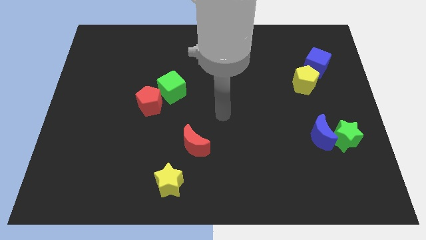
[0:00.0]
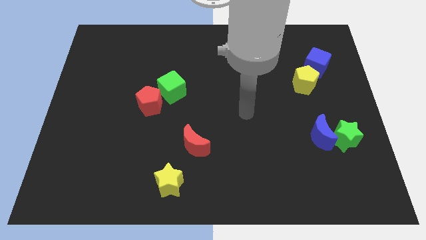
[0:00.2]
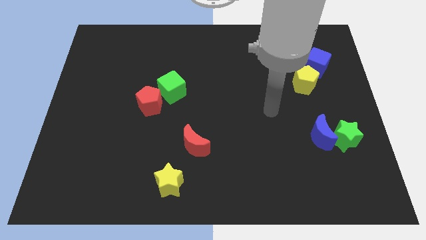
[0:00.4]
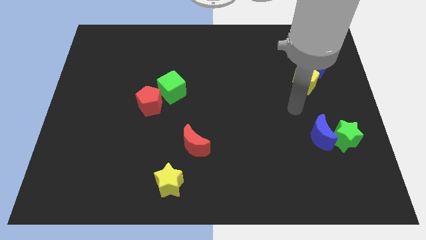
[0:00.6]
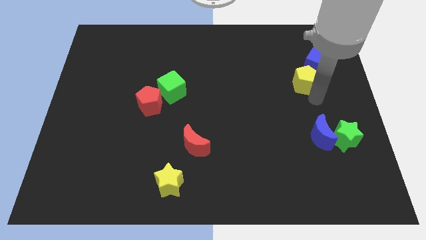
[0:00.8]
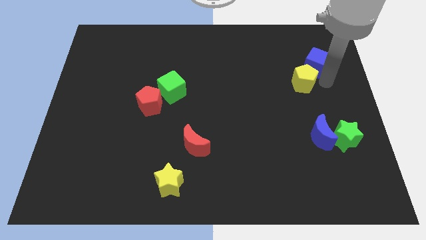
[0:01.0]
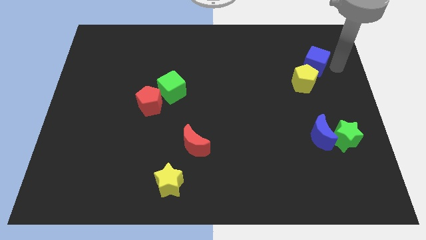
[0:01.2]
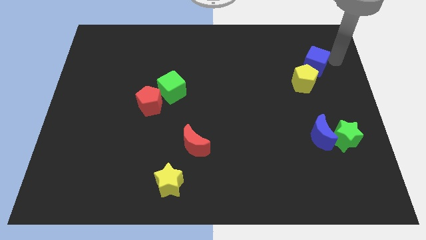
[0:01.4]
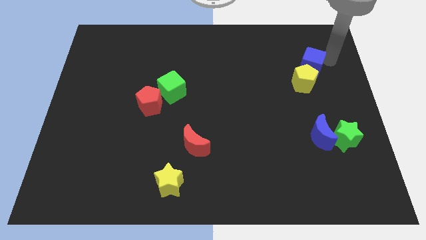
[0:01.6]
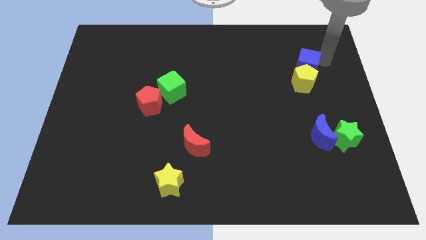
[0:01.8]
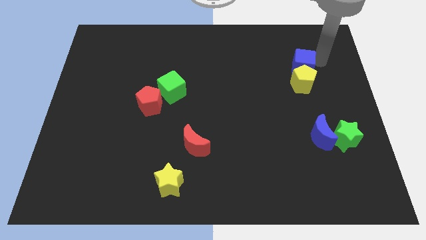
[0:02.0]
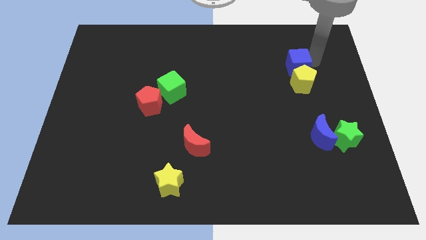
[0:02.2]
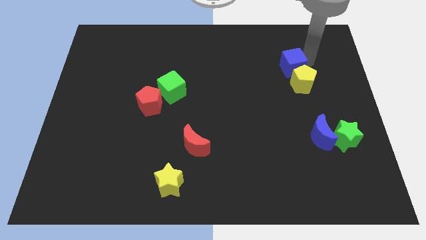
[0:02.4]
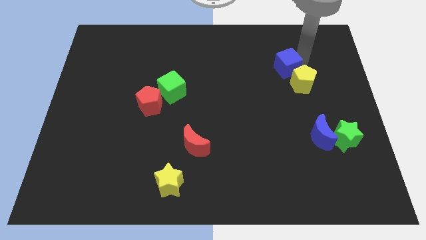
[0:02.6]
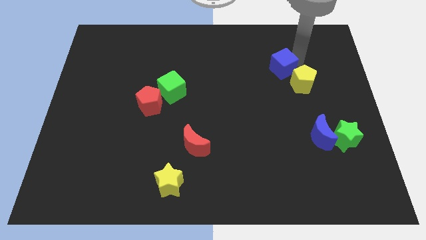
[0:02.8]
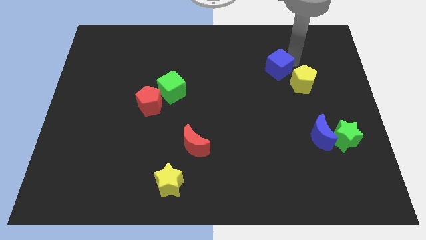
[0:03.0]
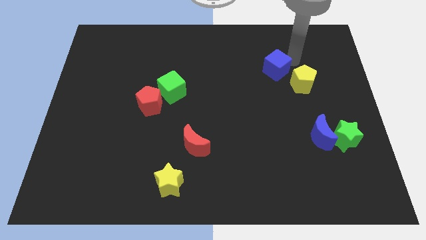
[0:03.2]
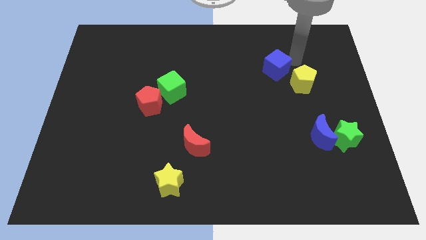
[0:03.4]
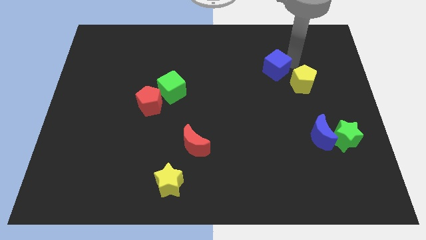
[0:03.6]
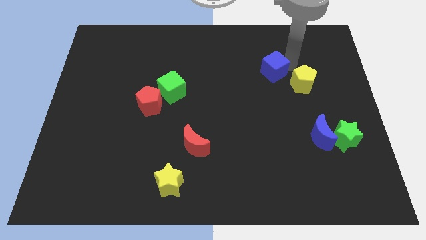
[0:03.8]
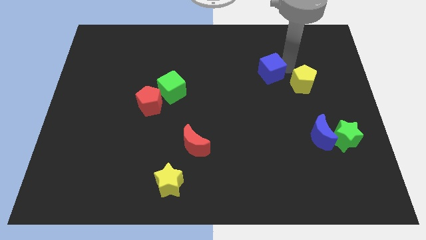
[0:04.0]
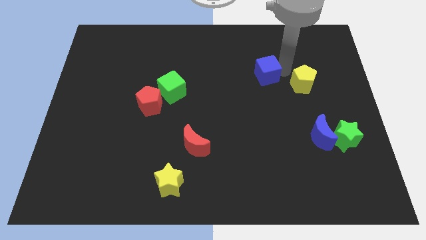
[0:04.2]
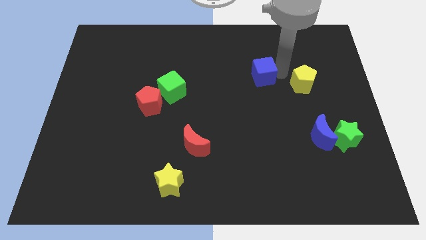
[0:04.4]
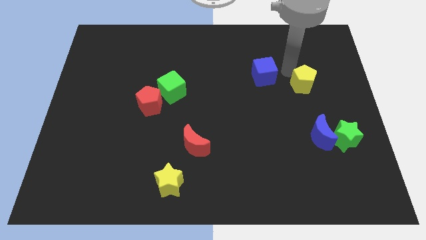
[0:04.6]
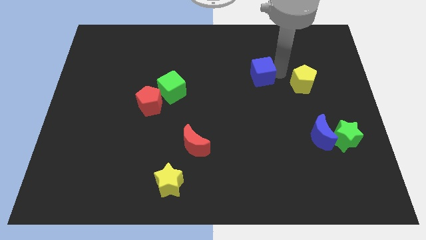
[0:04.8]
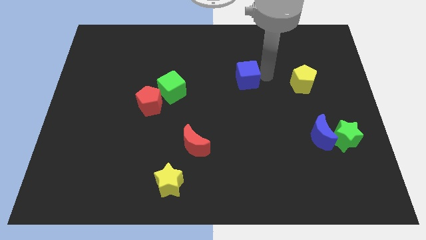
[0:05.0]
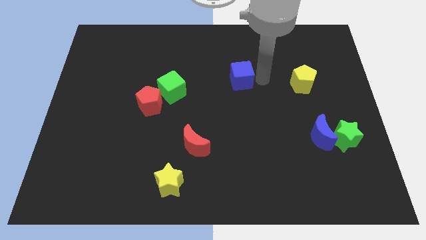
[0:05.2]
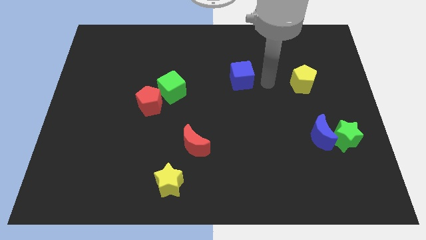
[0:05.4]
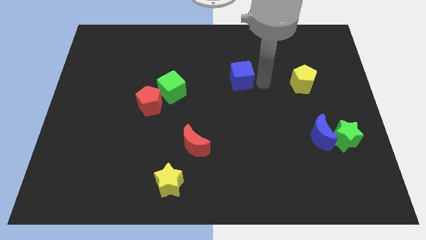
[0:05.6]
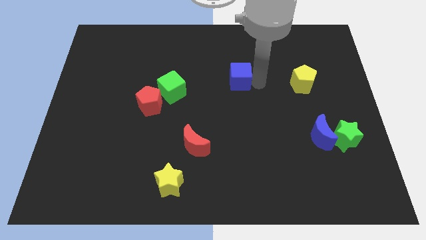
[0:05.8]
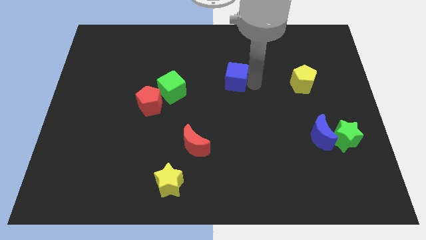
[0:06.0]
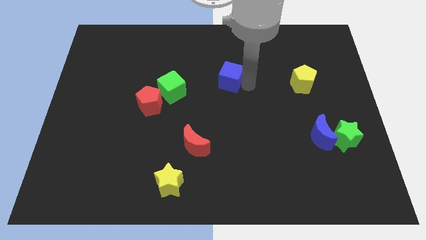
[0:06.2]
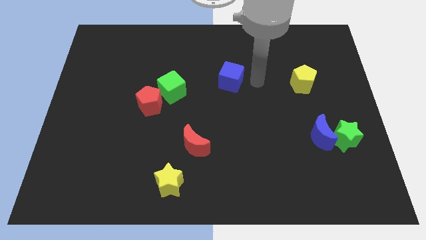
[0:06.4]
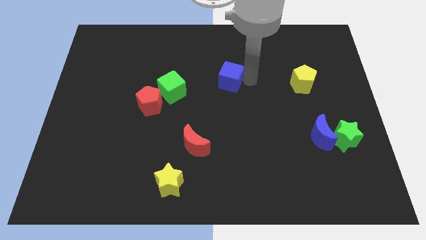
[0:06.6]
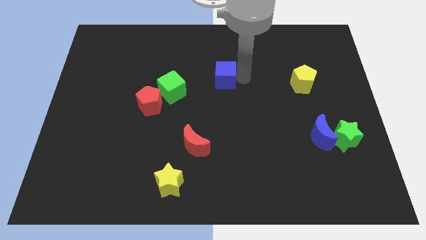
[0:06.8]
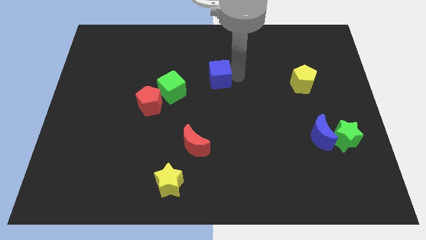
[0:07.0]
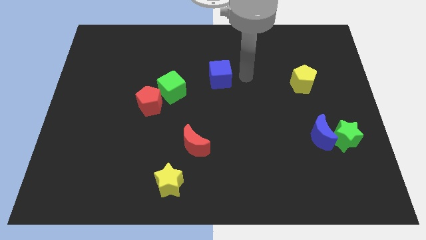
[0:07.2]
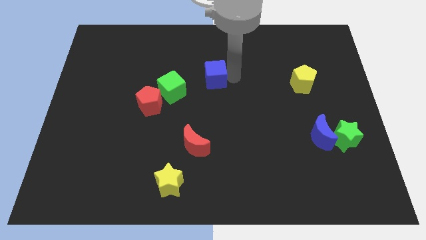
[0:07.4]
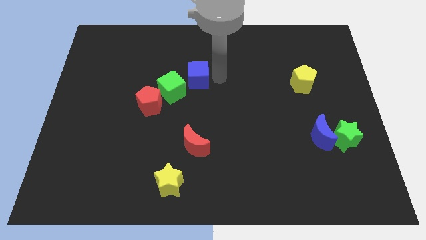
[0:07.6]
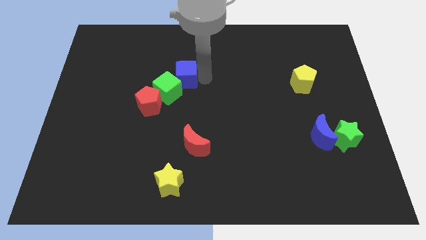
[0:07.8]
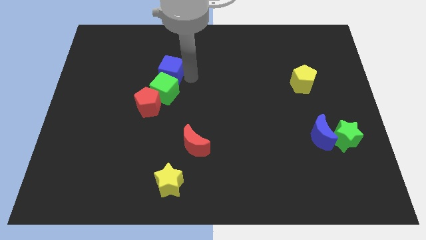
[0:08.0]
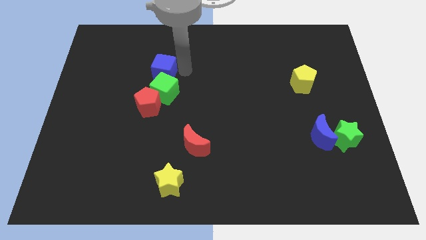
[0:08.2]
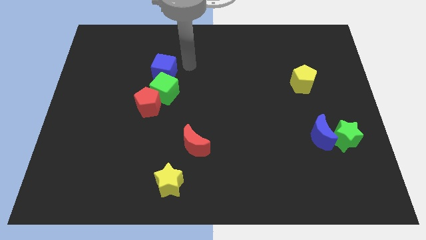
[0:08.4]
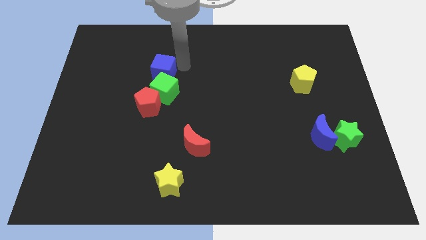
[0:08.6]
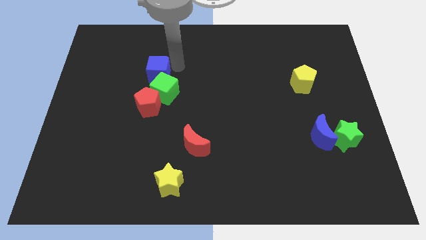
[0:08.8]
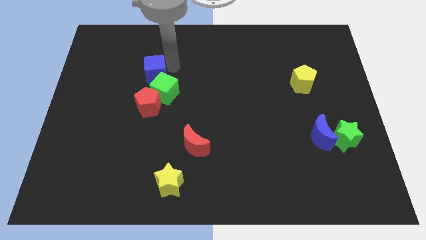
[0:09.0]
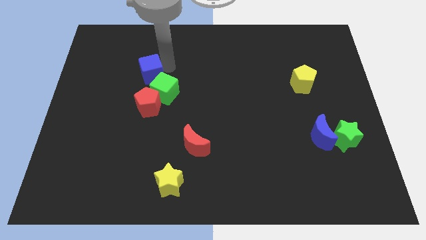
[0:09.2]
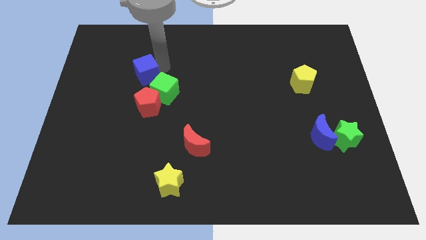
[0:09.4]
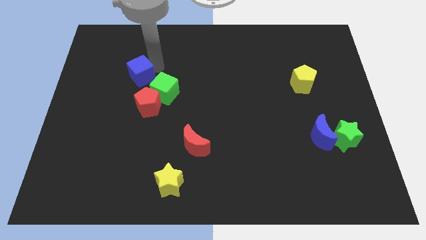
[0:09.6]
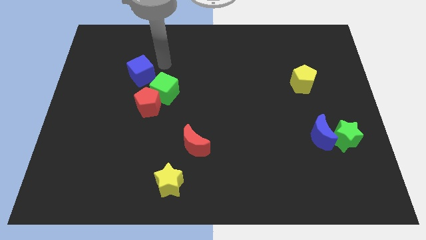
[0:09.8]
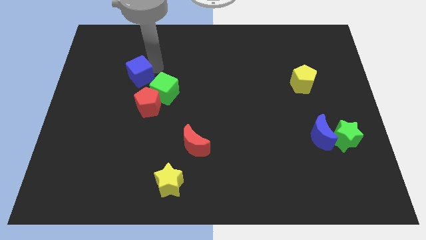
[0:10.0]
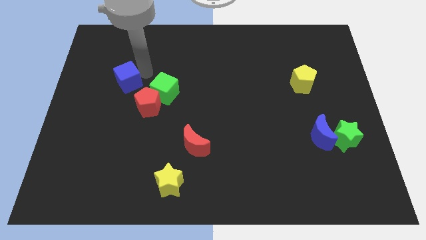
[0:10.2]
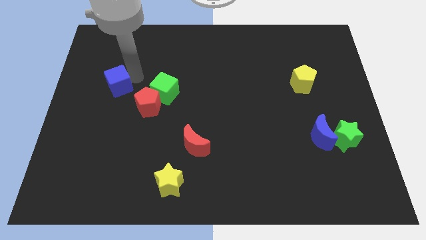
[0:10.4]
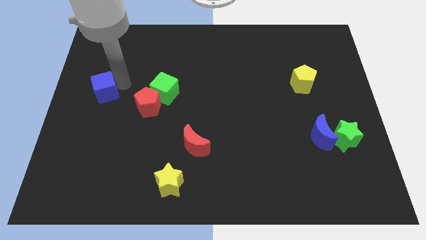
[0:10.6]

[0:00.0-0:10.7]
put the blue cube to the left side

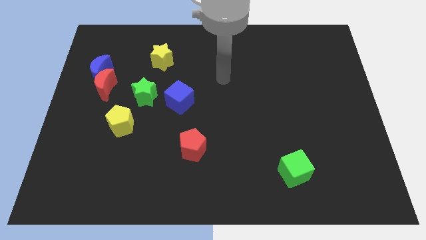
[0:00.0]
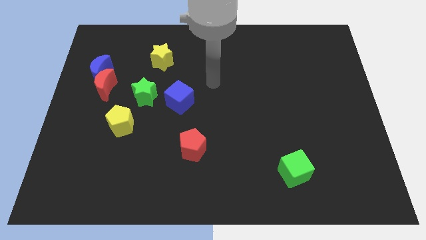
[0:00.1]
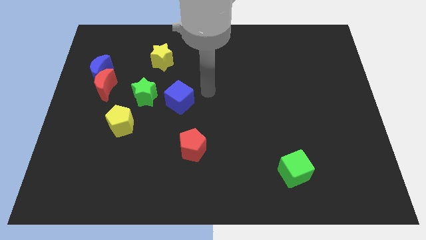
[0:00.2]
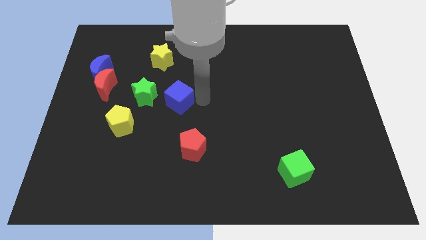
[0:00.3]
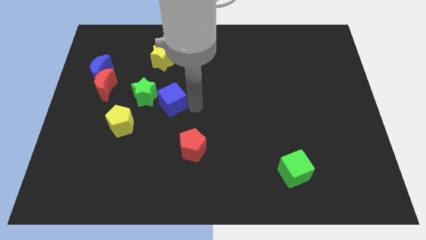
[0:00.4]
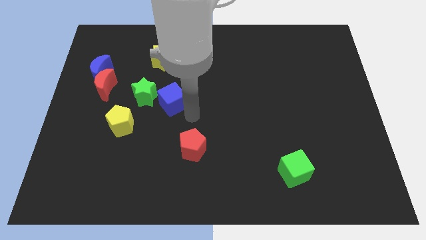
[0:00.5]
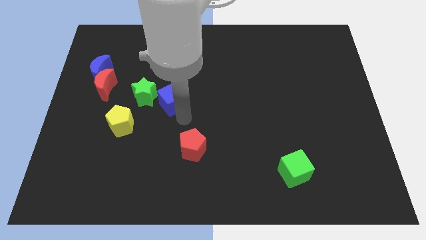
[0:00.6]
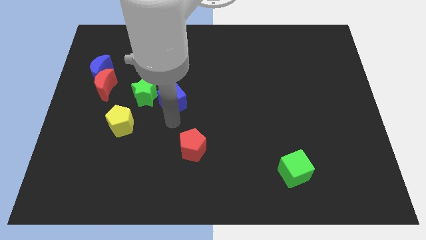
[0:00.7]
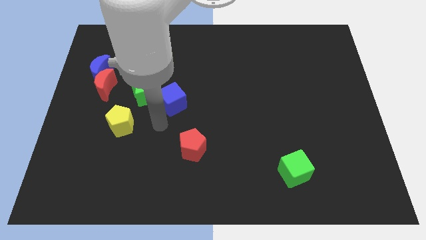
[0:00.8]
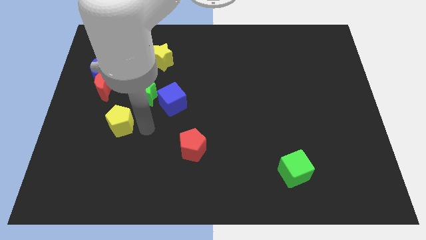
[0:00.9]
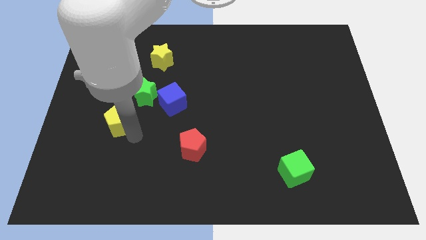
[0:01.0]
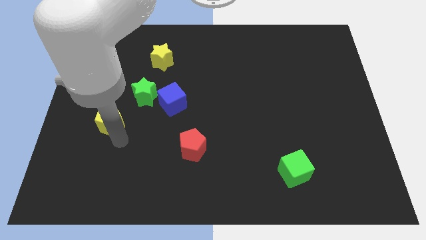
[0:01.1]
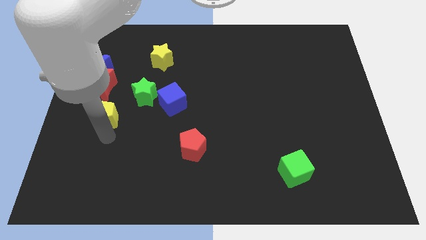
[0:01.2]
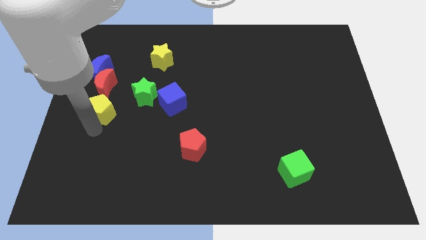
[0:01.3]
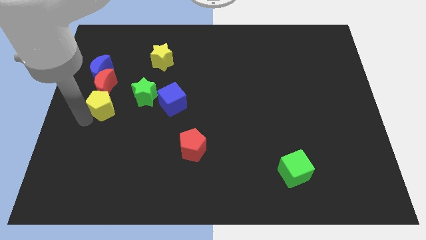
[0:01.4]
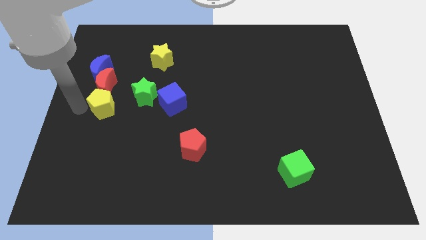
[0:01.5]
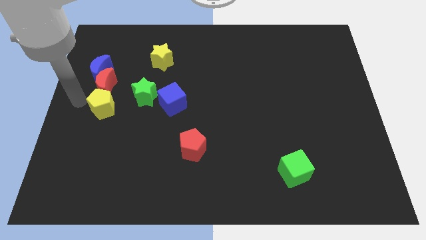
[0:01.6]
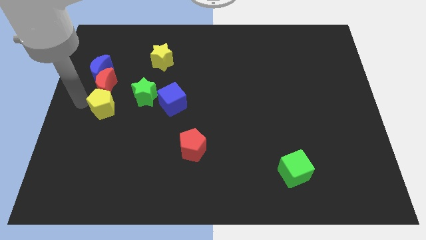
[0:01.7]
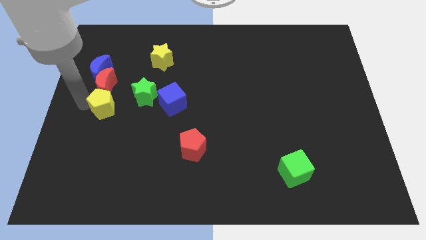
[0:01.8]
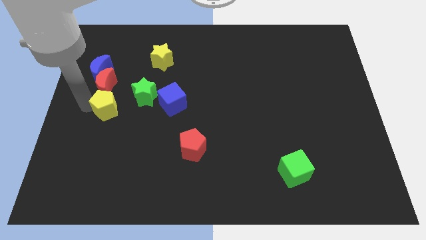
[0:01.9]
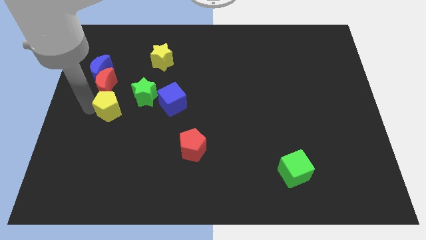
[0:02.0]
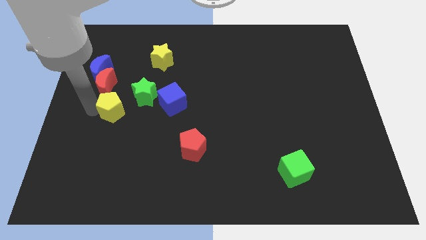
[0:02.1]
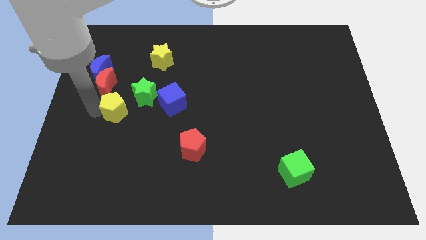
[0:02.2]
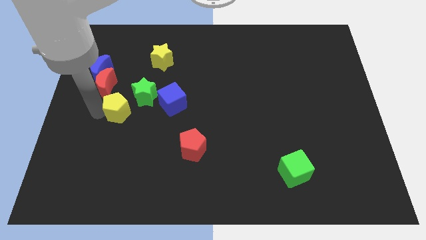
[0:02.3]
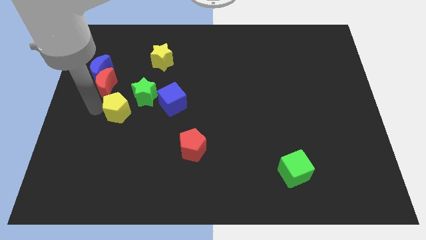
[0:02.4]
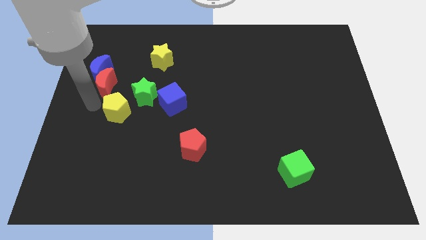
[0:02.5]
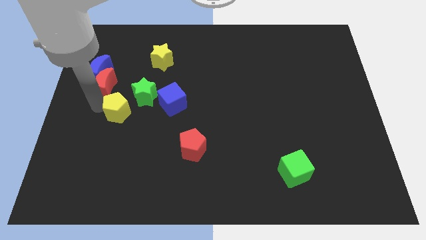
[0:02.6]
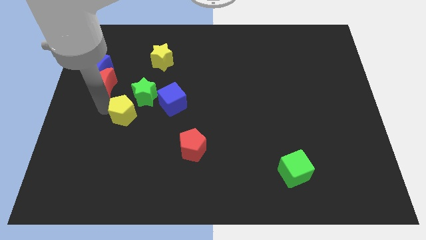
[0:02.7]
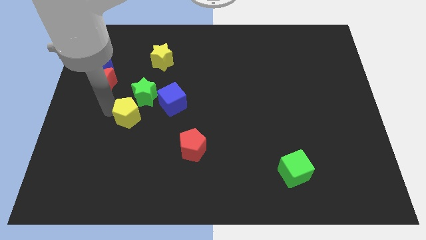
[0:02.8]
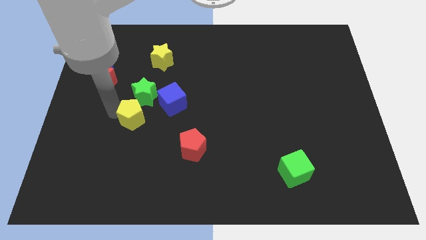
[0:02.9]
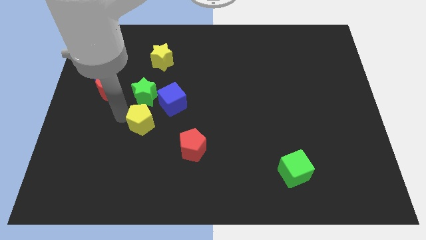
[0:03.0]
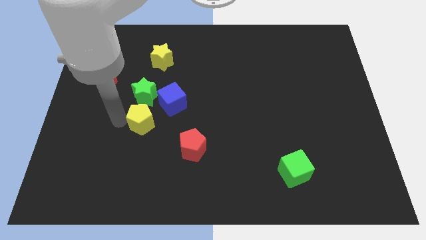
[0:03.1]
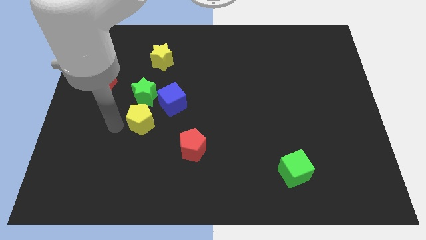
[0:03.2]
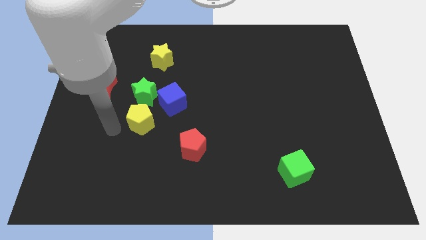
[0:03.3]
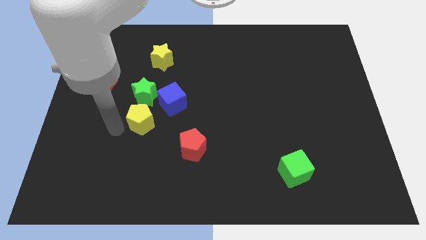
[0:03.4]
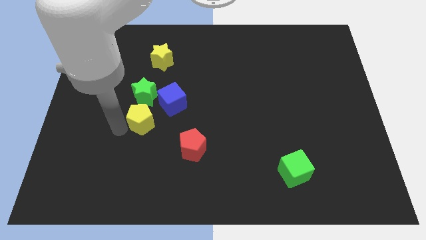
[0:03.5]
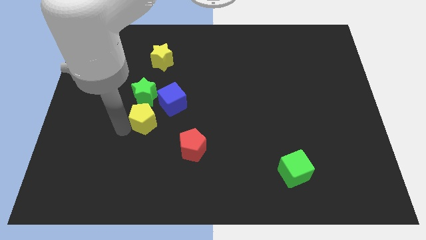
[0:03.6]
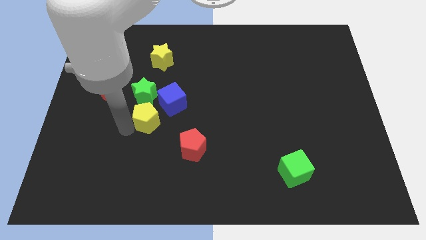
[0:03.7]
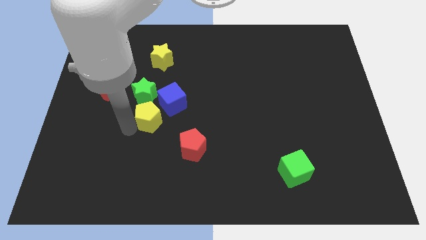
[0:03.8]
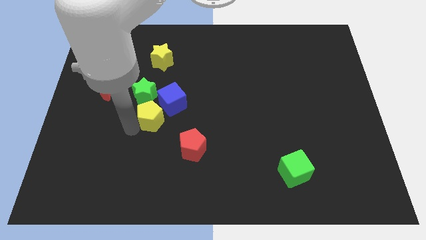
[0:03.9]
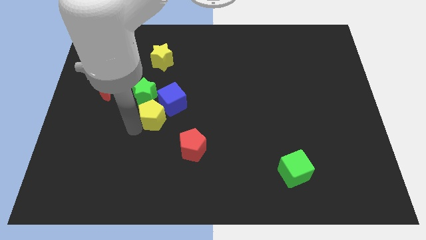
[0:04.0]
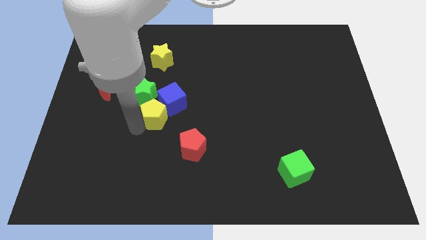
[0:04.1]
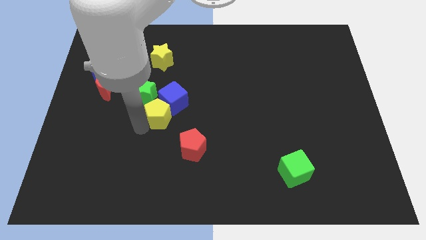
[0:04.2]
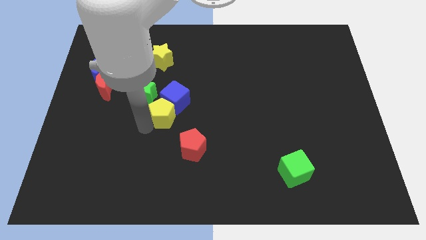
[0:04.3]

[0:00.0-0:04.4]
put the yellow pentagon to the middle
